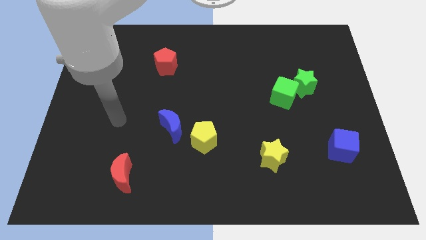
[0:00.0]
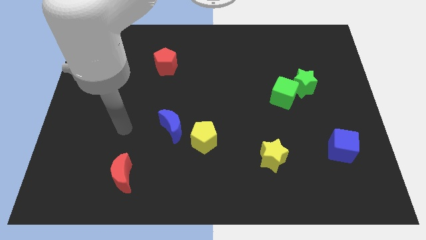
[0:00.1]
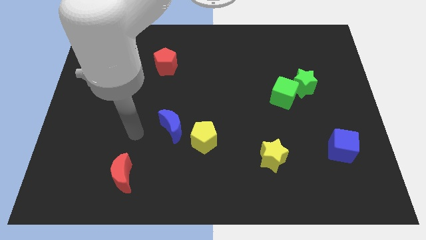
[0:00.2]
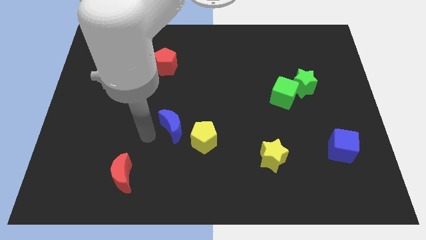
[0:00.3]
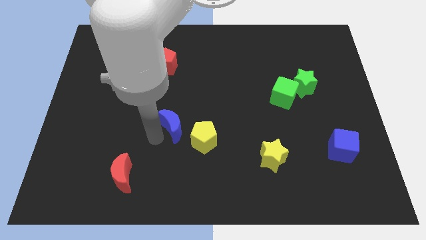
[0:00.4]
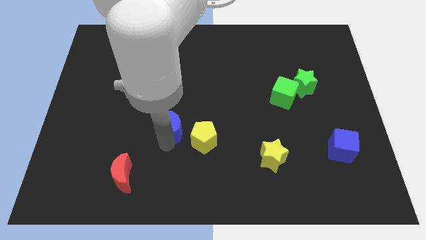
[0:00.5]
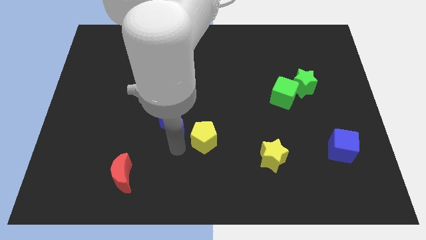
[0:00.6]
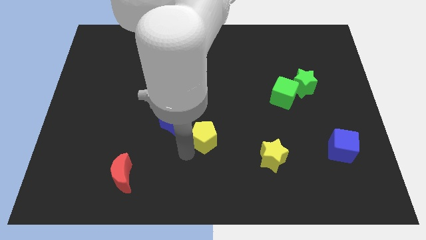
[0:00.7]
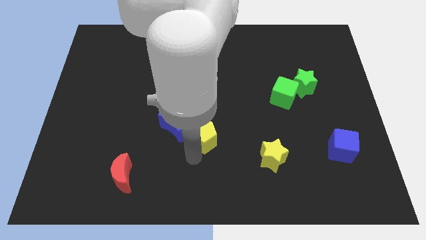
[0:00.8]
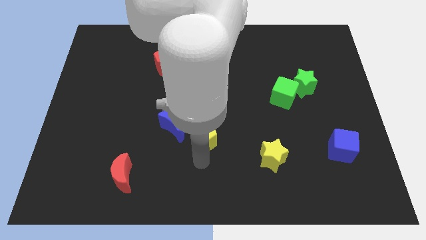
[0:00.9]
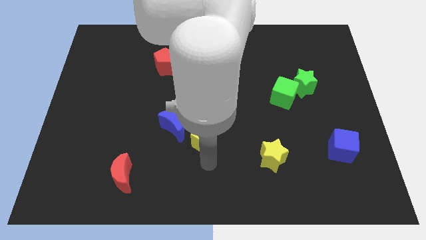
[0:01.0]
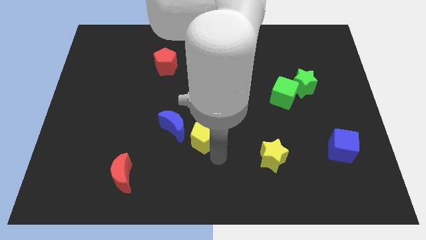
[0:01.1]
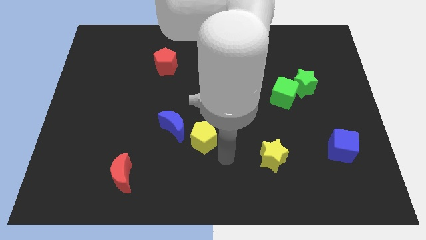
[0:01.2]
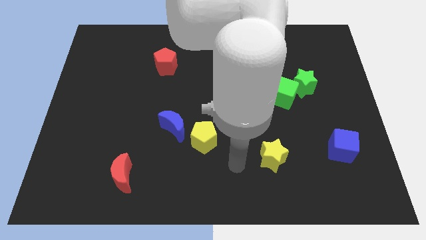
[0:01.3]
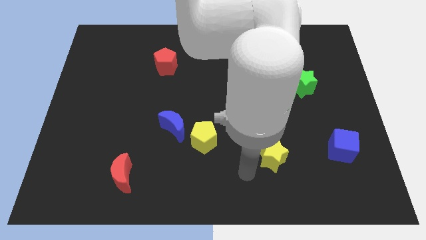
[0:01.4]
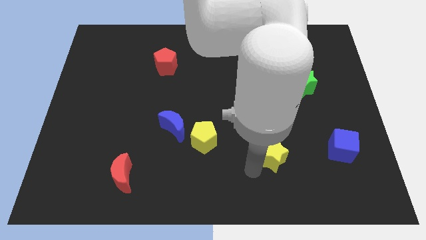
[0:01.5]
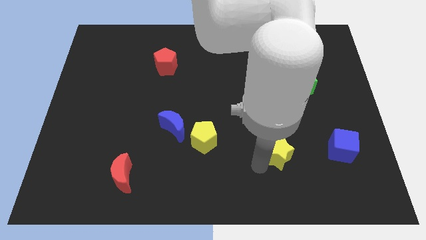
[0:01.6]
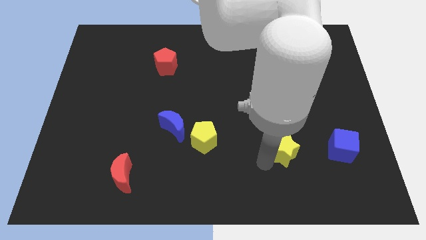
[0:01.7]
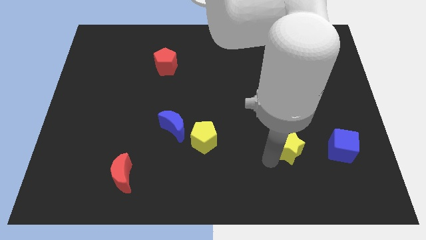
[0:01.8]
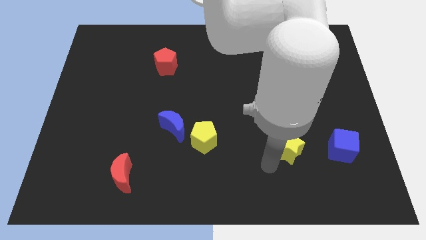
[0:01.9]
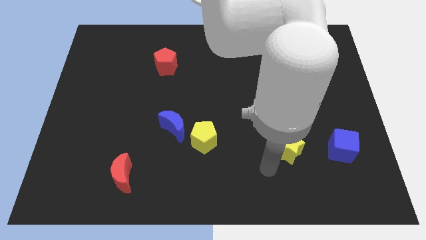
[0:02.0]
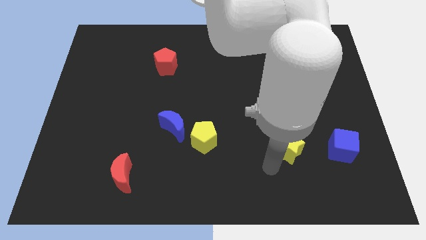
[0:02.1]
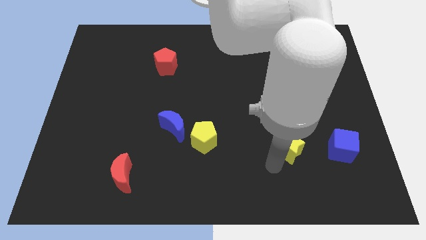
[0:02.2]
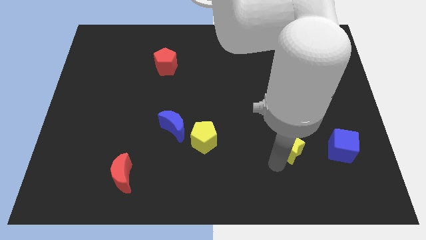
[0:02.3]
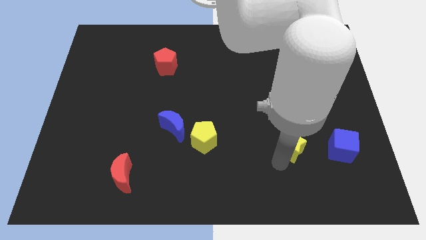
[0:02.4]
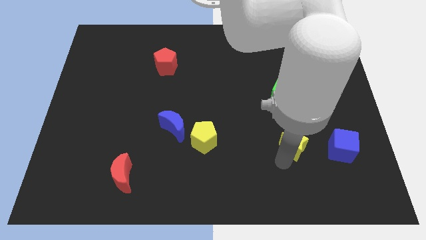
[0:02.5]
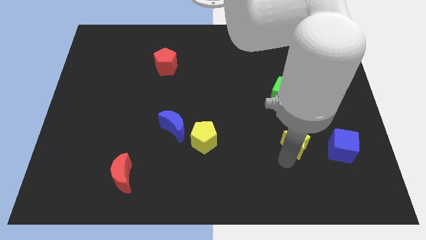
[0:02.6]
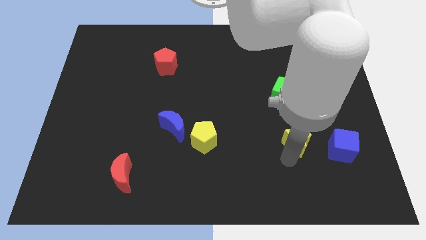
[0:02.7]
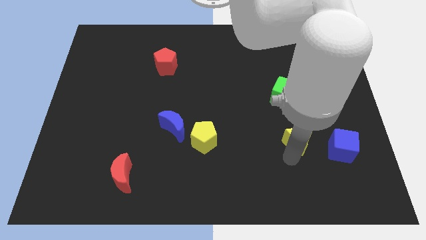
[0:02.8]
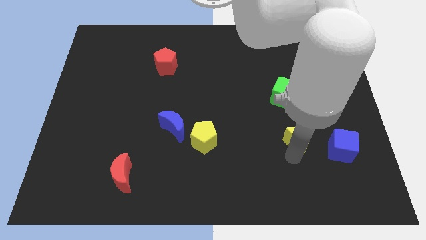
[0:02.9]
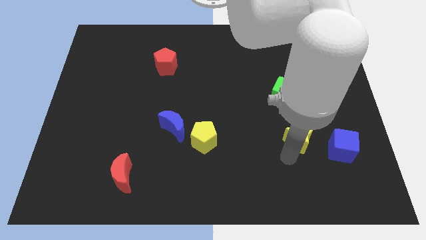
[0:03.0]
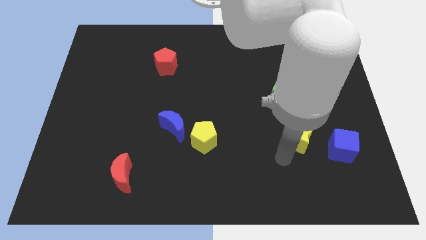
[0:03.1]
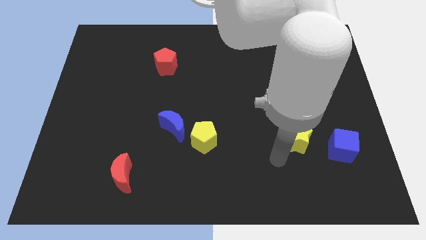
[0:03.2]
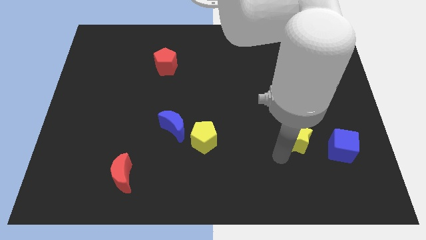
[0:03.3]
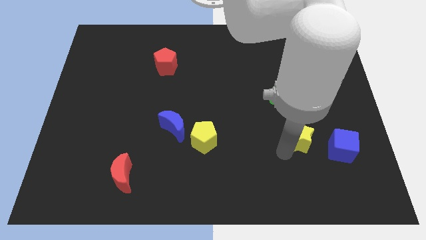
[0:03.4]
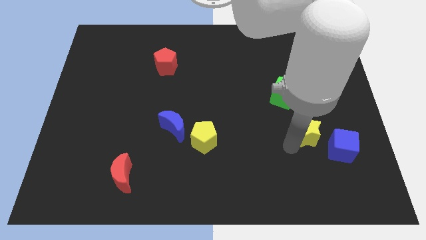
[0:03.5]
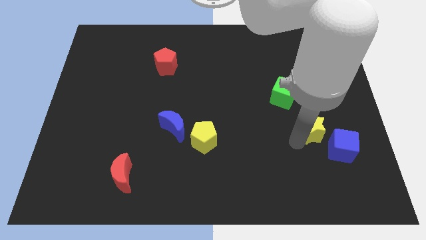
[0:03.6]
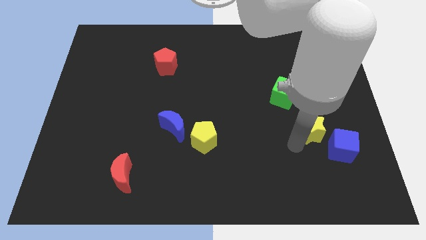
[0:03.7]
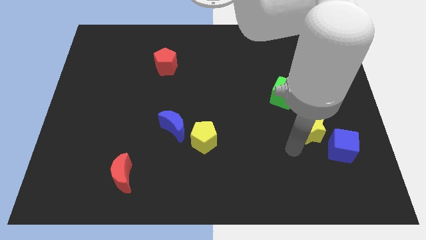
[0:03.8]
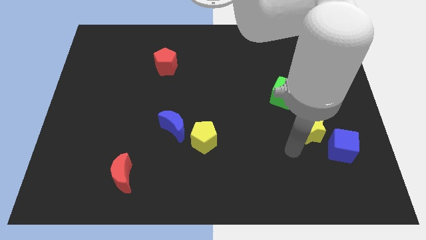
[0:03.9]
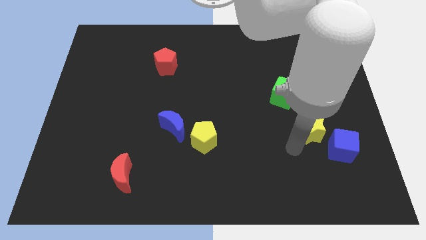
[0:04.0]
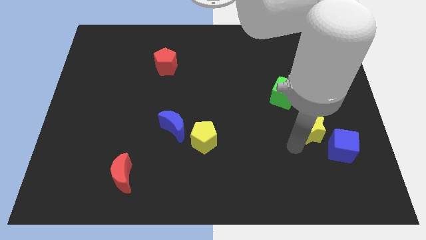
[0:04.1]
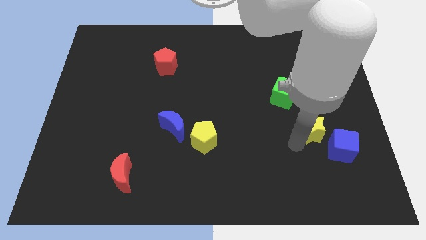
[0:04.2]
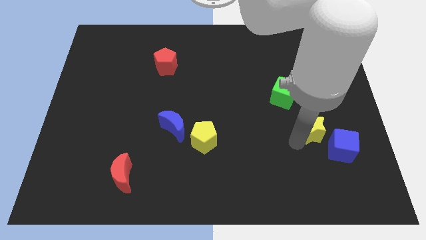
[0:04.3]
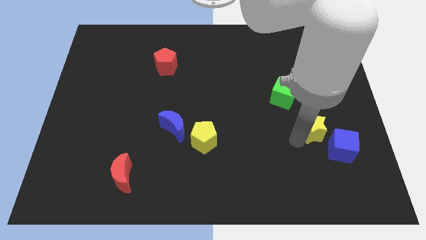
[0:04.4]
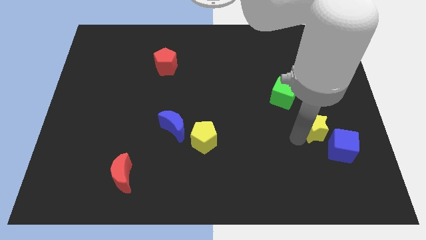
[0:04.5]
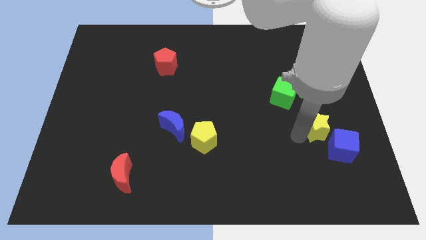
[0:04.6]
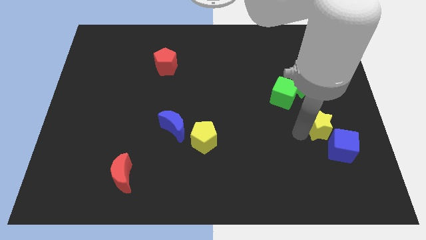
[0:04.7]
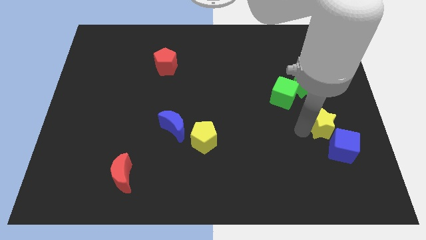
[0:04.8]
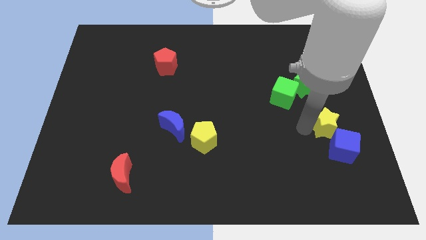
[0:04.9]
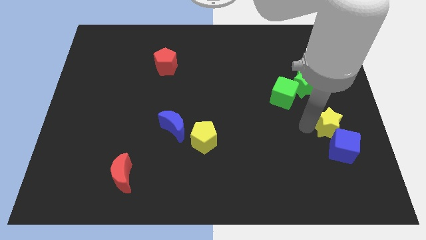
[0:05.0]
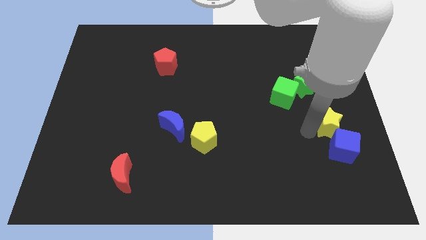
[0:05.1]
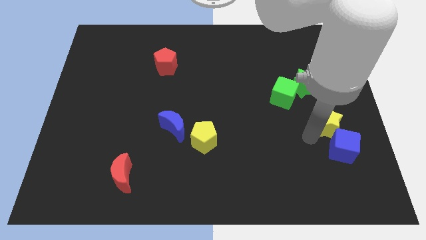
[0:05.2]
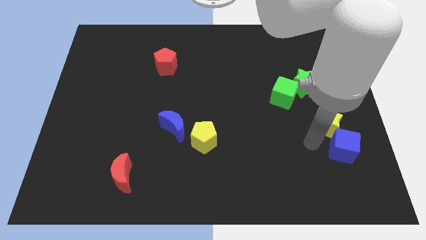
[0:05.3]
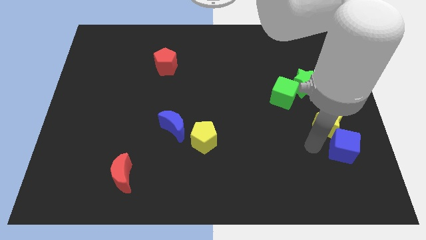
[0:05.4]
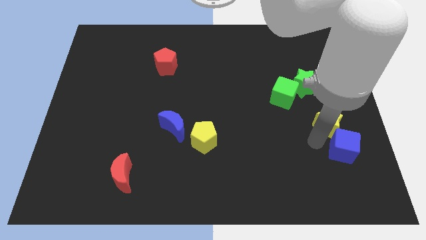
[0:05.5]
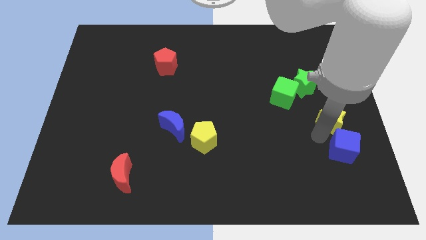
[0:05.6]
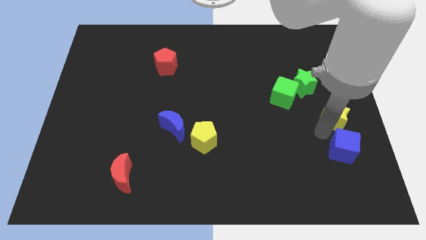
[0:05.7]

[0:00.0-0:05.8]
slide the yellow star to the center right

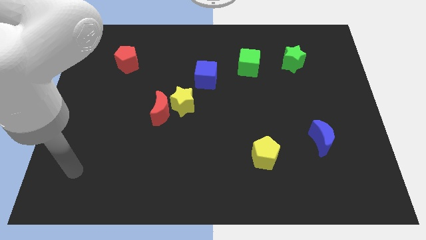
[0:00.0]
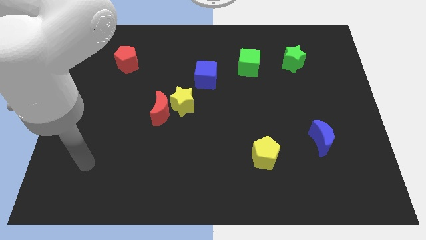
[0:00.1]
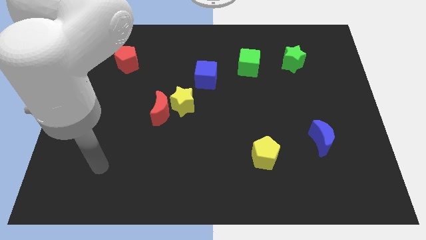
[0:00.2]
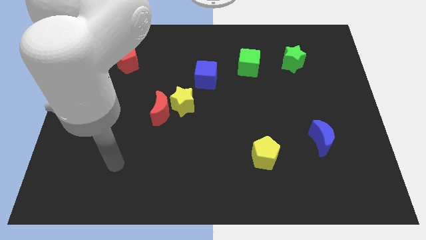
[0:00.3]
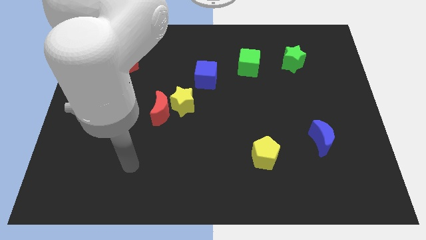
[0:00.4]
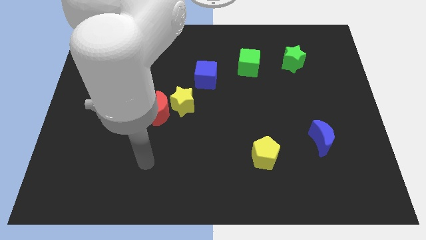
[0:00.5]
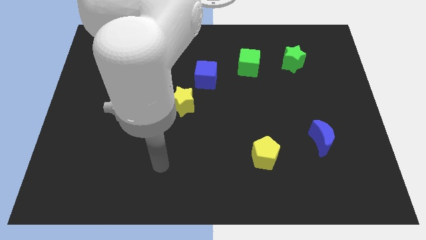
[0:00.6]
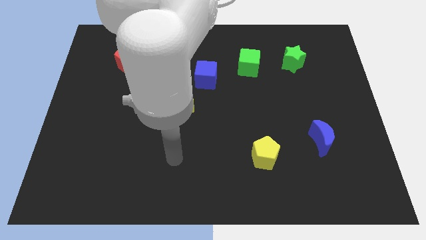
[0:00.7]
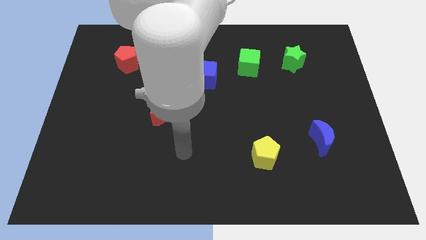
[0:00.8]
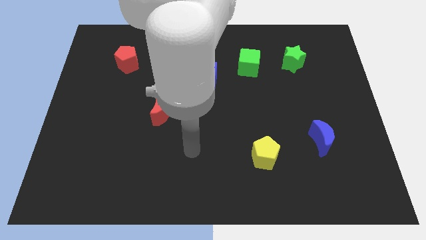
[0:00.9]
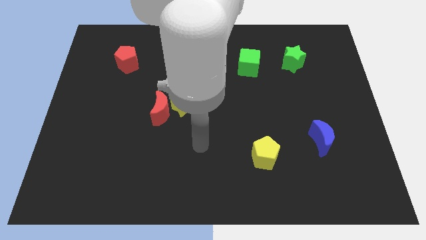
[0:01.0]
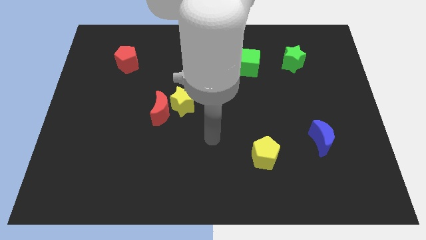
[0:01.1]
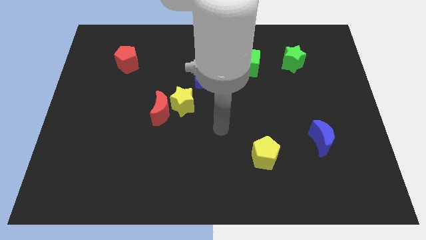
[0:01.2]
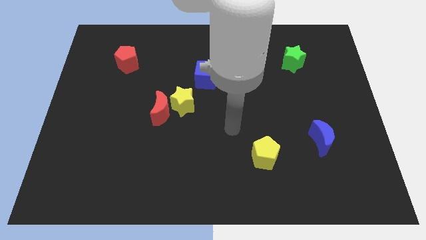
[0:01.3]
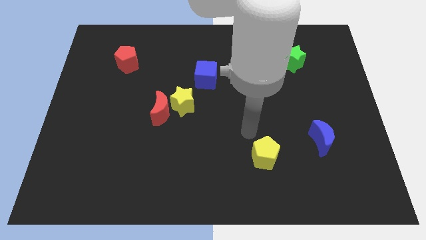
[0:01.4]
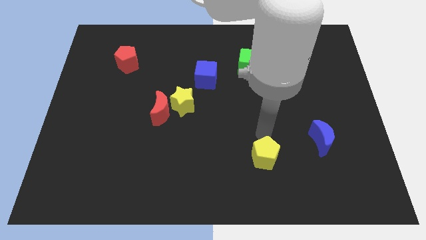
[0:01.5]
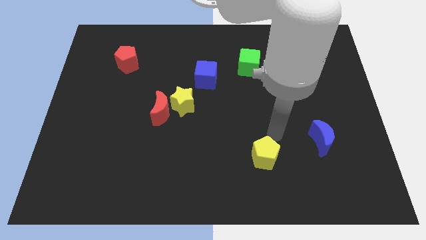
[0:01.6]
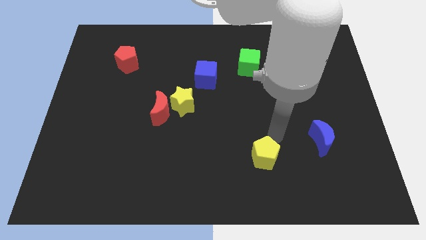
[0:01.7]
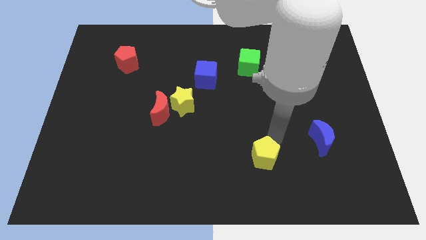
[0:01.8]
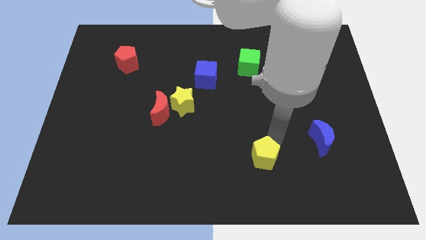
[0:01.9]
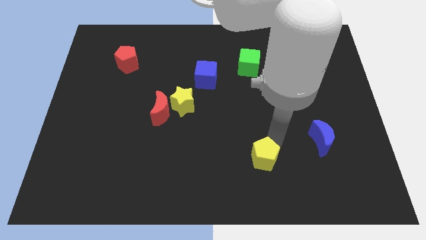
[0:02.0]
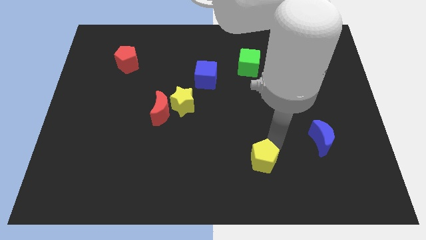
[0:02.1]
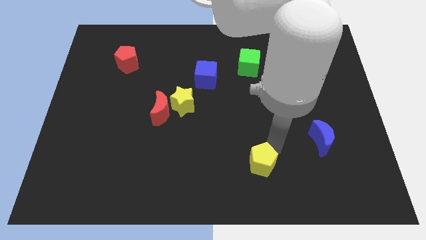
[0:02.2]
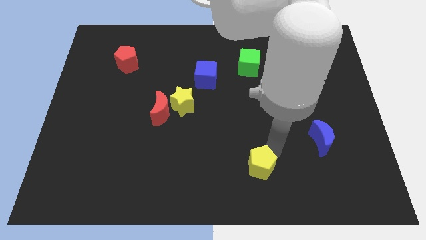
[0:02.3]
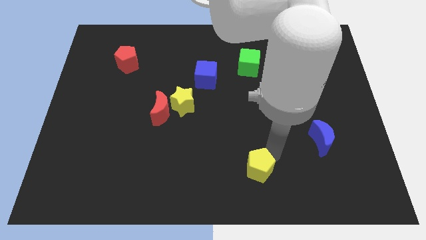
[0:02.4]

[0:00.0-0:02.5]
put the yellow pentagon to the bottom
